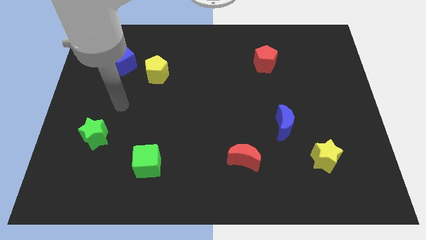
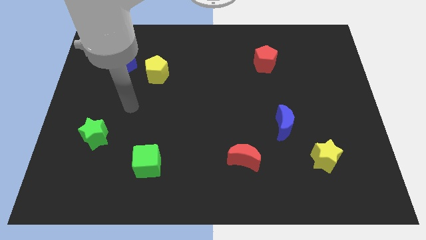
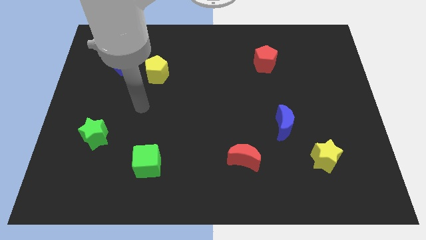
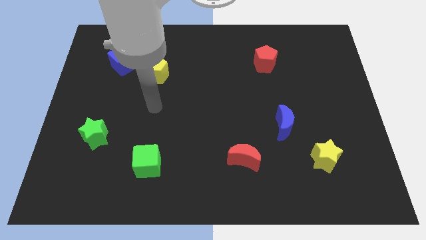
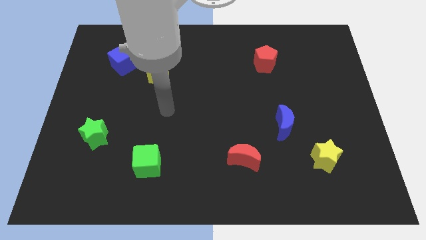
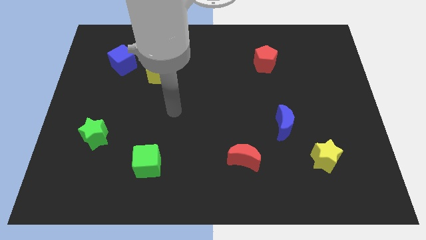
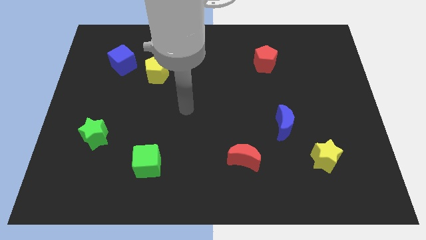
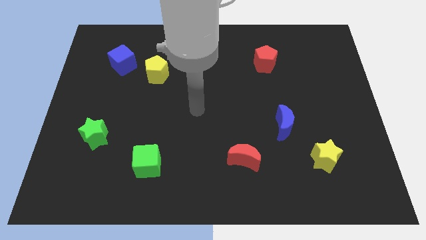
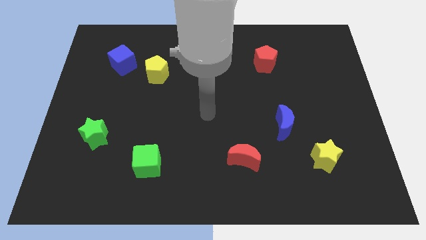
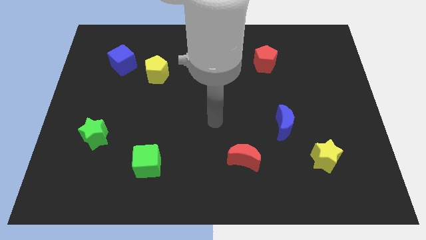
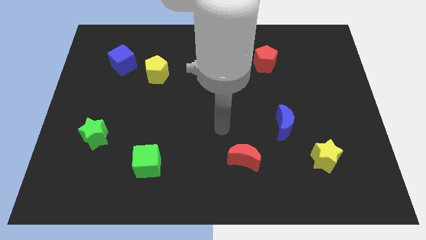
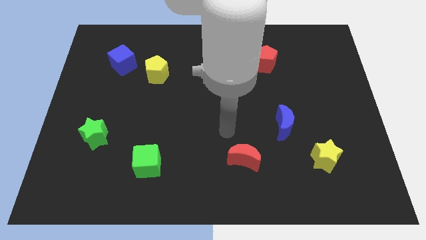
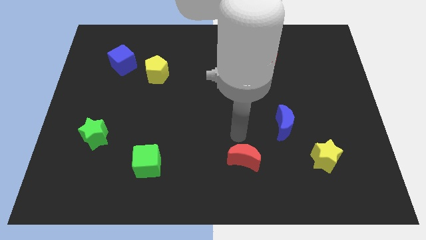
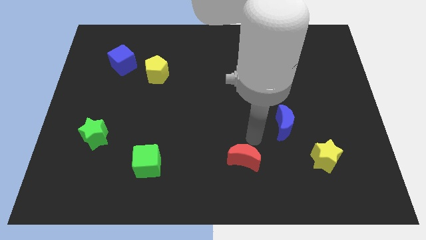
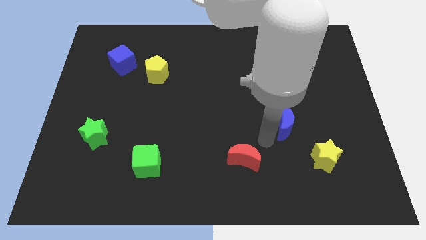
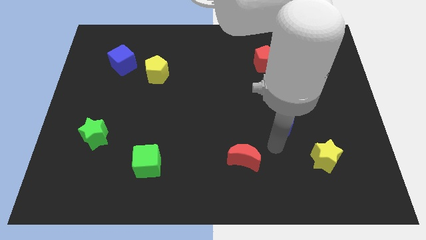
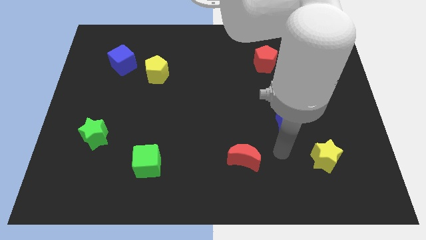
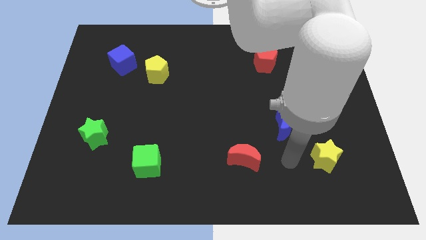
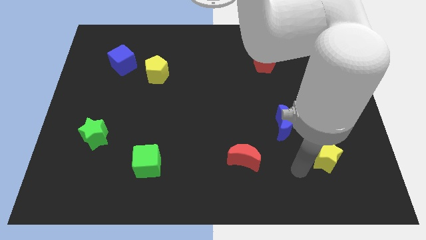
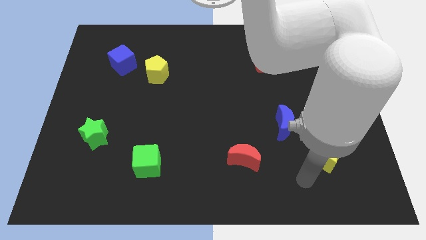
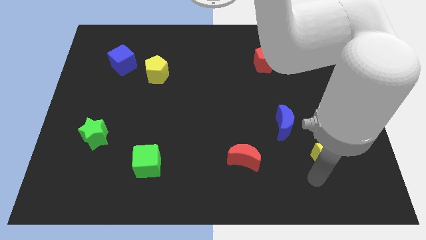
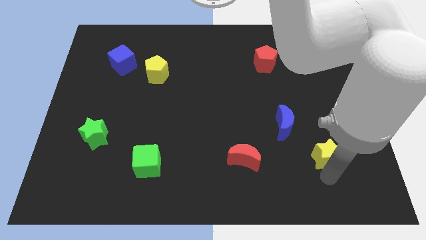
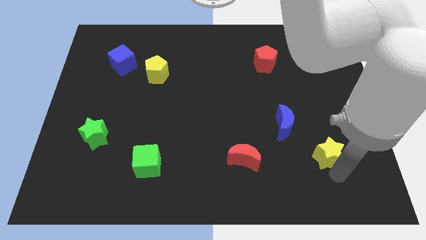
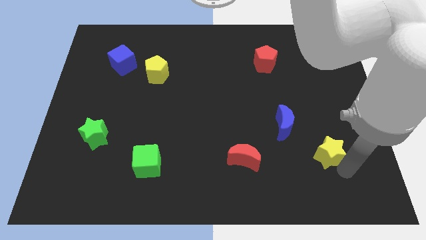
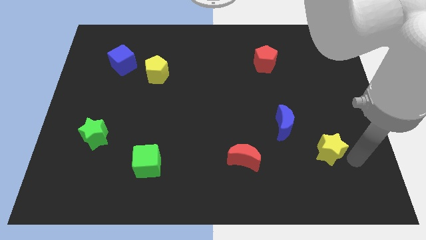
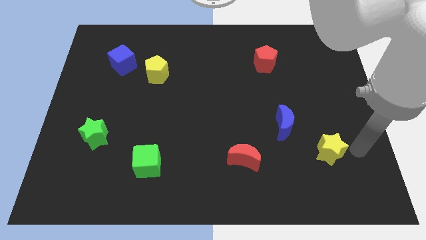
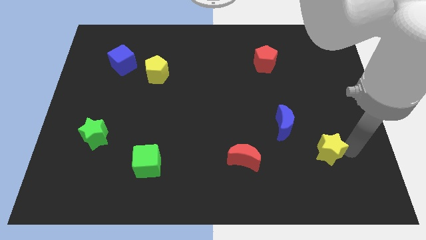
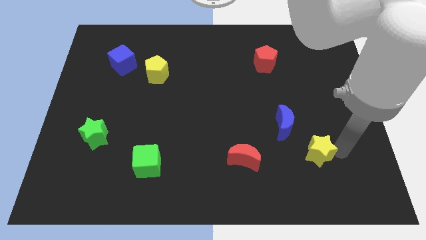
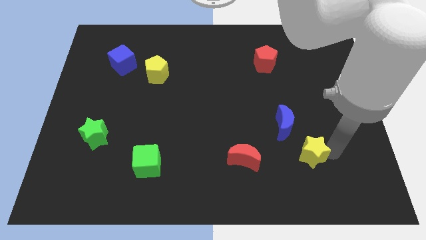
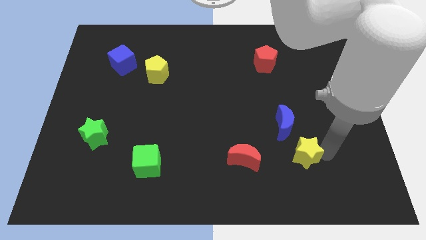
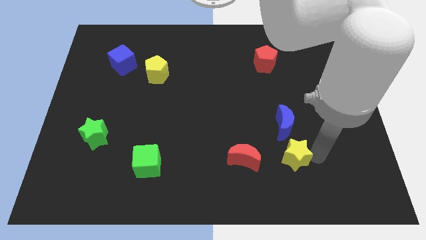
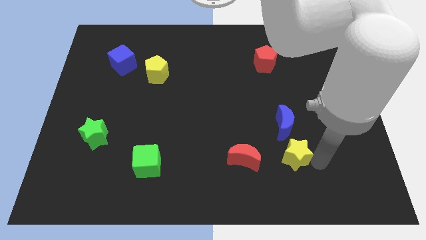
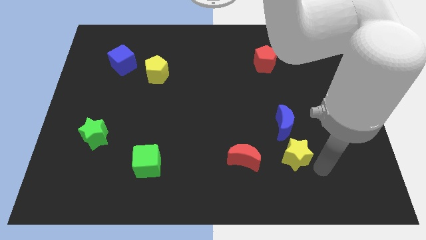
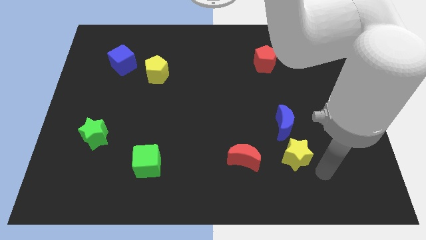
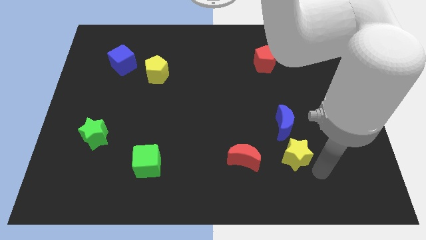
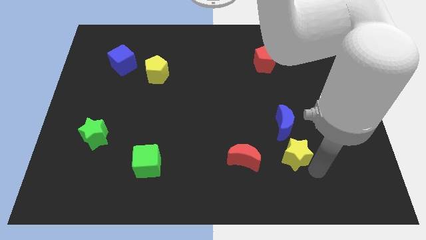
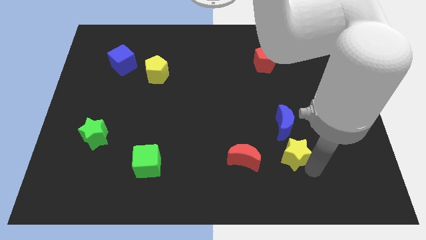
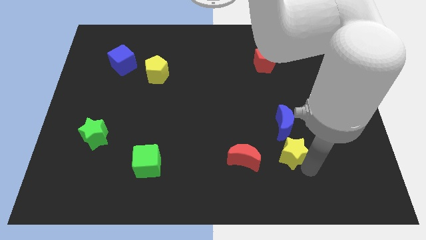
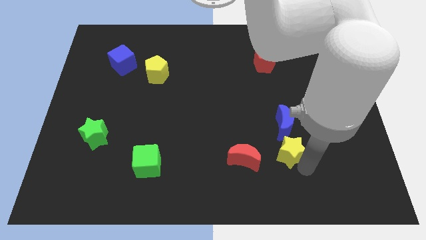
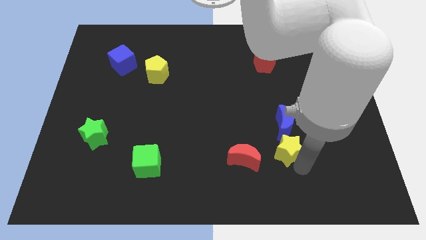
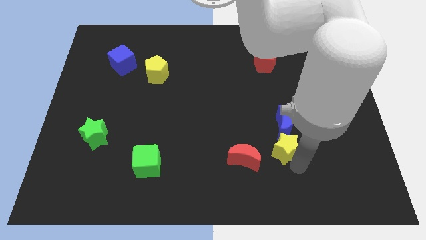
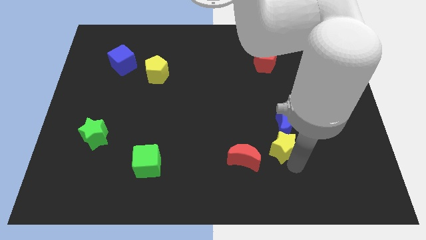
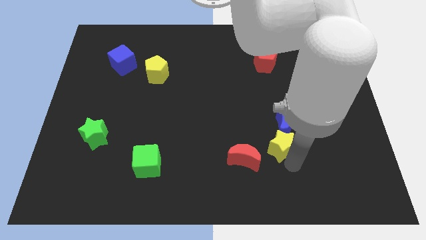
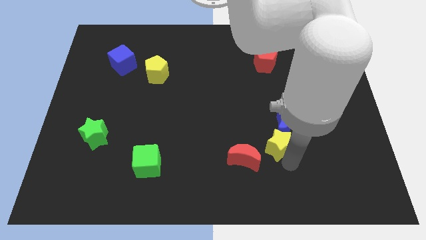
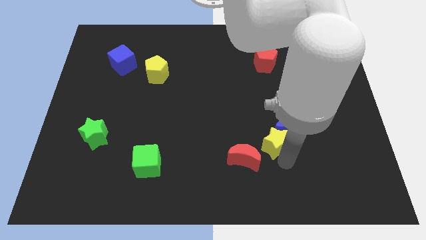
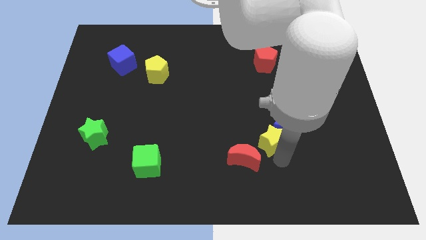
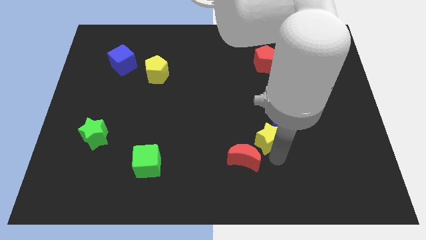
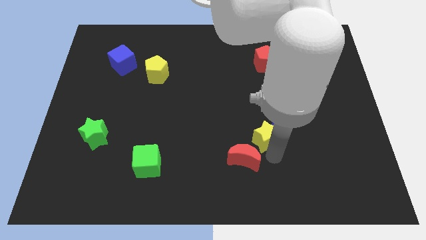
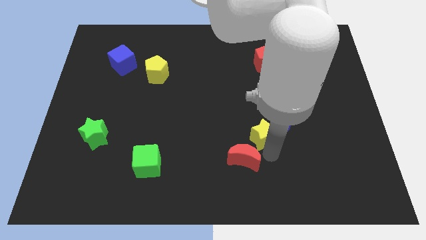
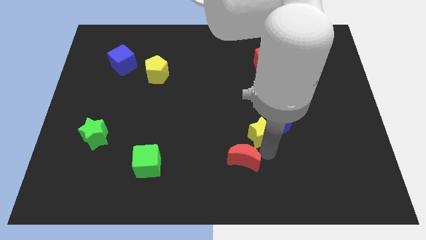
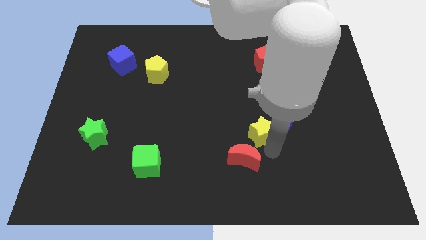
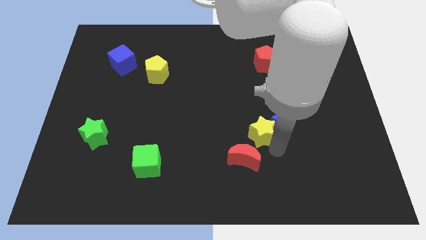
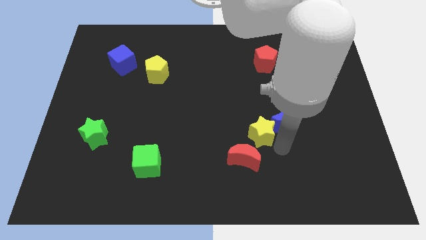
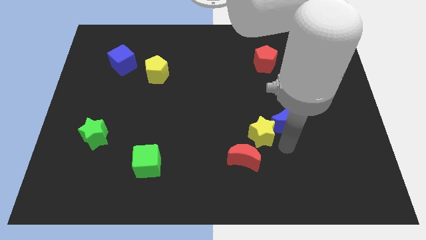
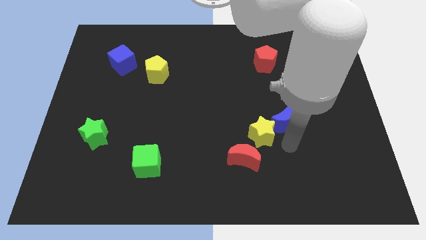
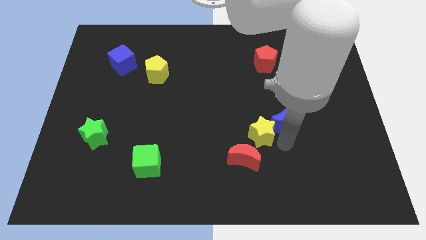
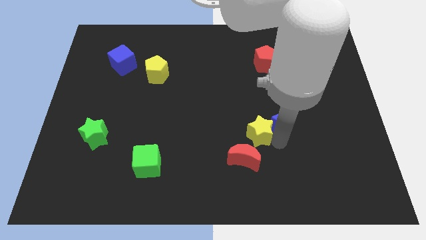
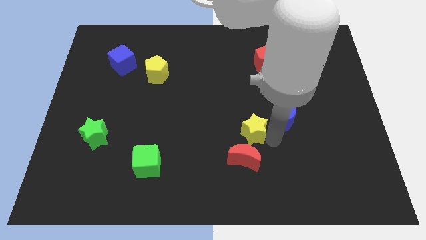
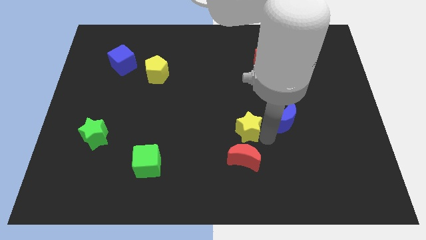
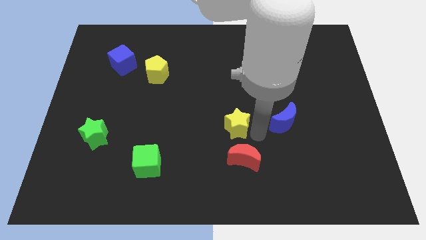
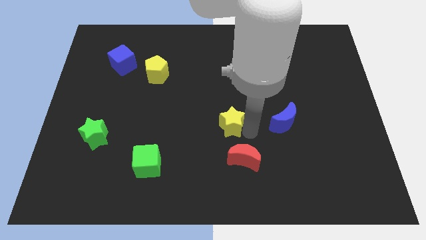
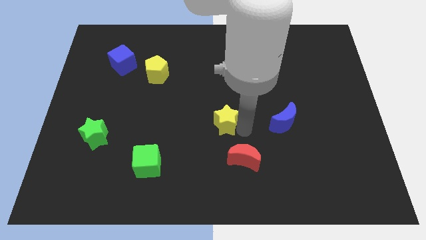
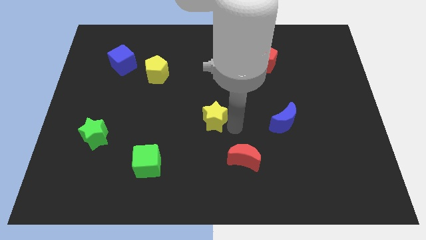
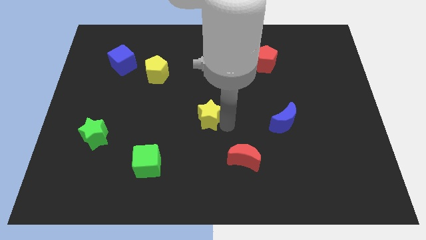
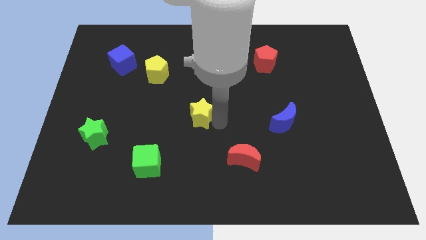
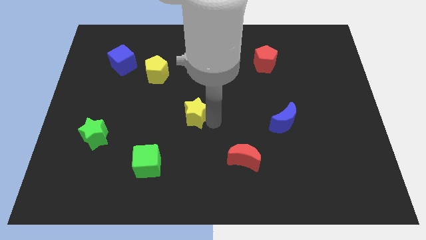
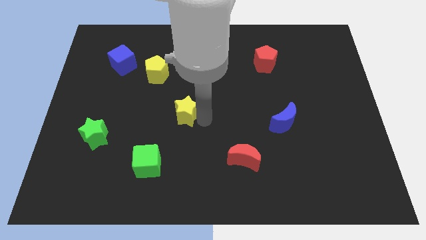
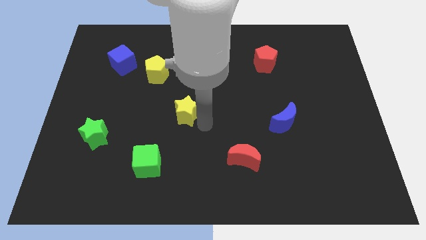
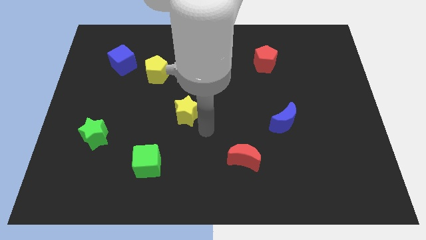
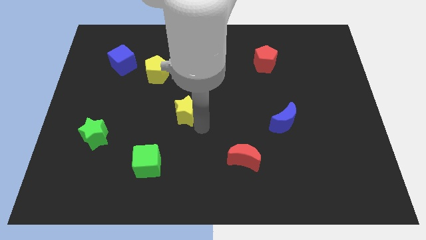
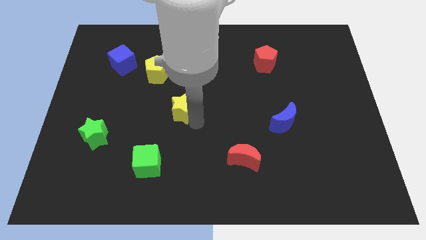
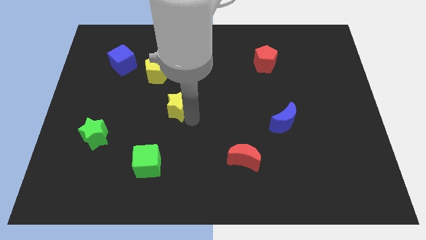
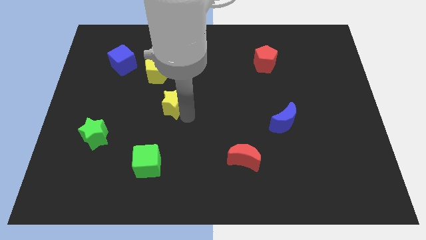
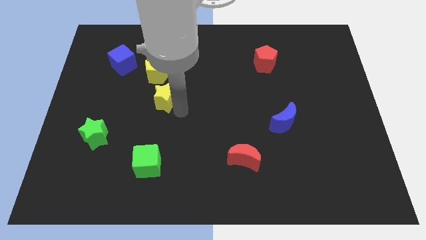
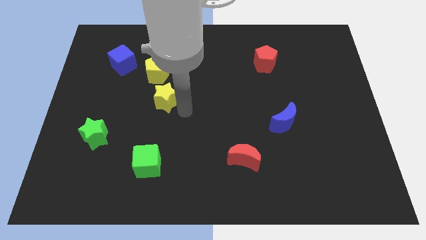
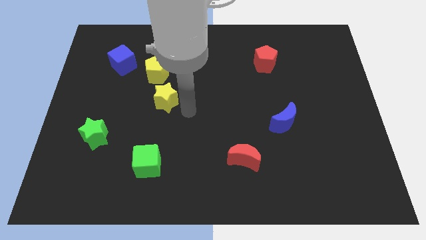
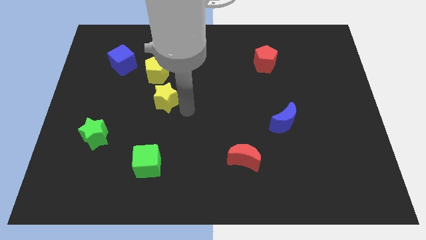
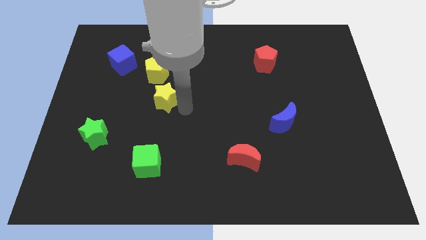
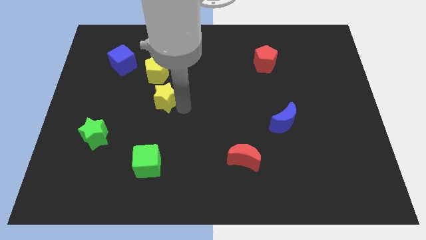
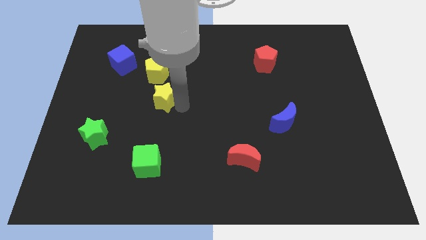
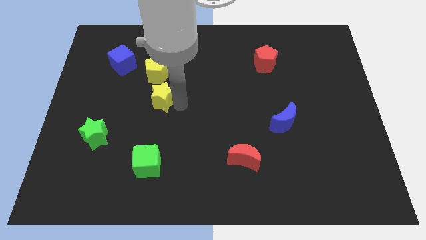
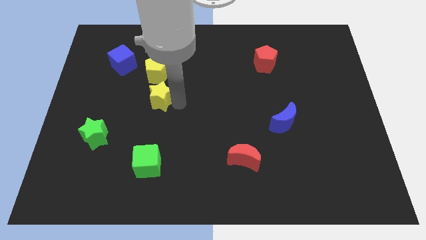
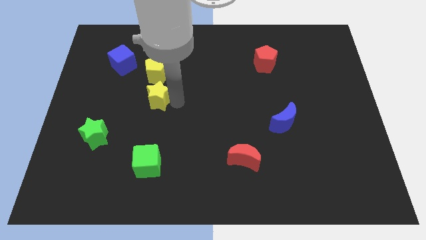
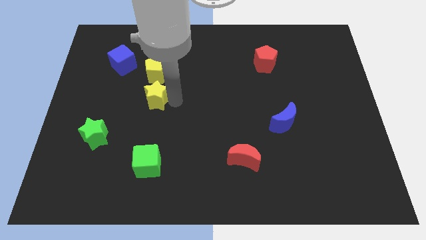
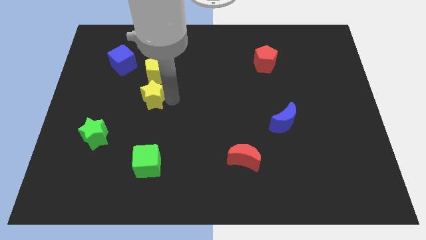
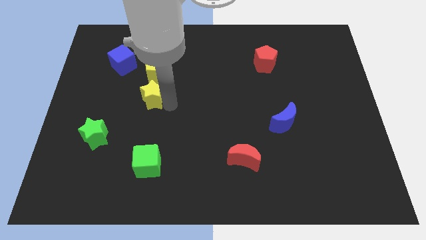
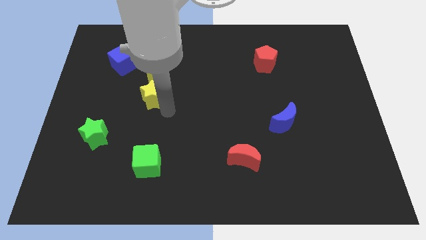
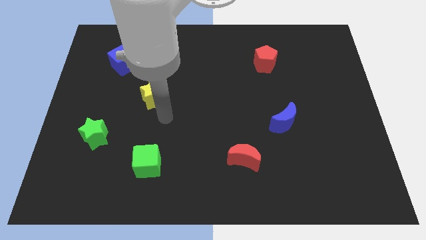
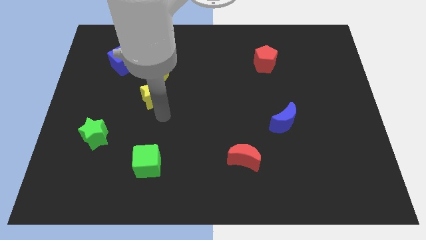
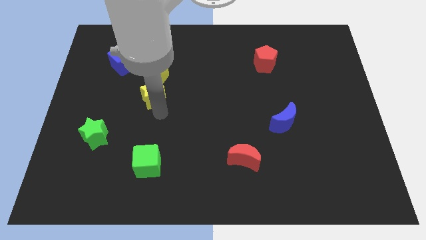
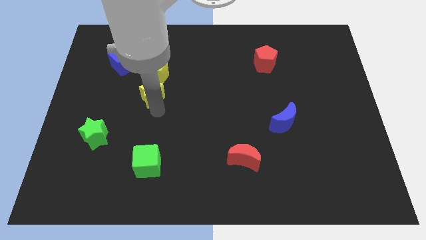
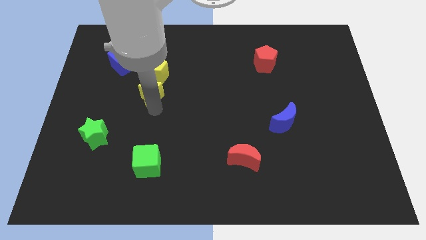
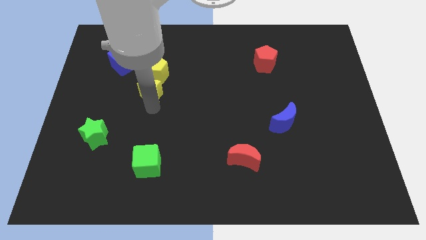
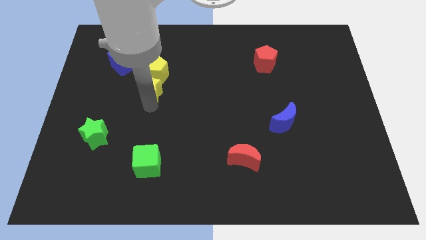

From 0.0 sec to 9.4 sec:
push the yellow star to the bottom right side of the blue cube
